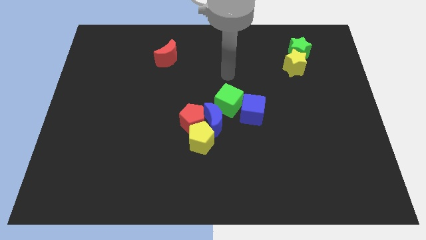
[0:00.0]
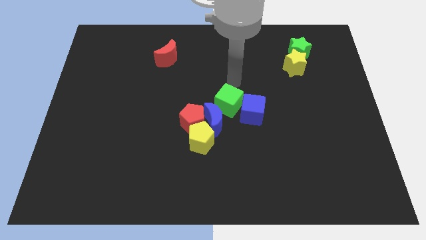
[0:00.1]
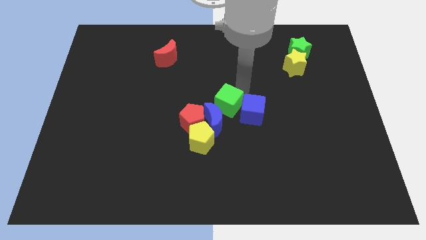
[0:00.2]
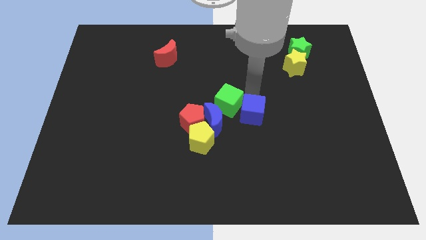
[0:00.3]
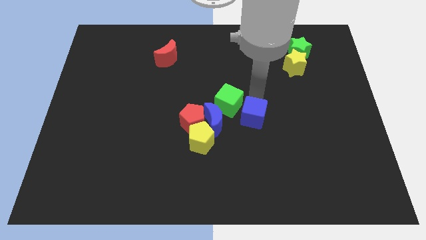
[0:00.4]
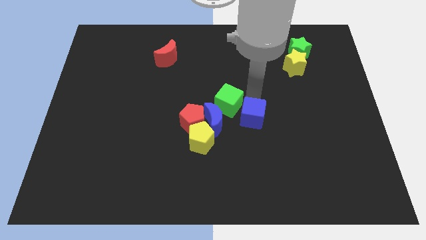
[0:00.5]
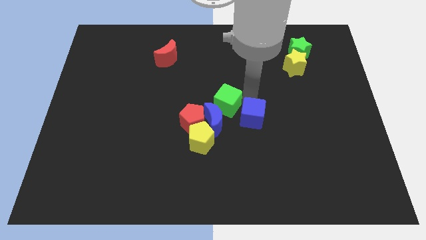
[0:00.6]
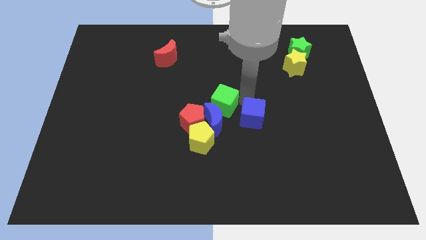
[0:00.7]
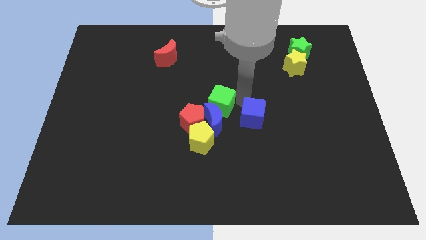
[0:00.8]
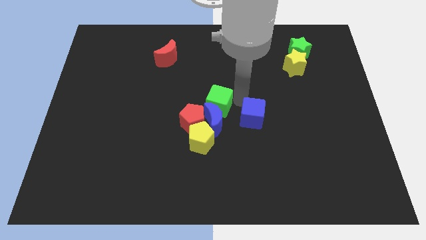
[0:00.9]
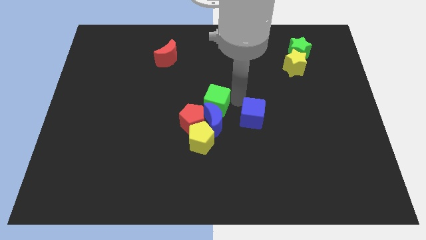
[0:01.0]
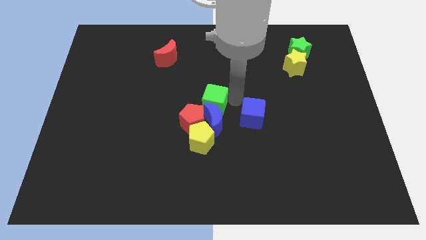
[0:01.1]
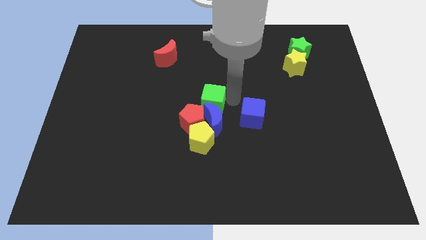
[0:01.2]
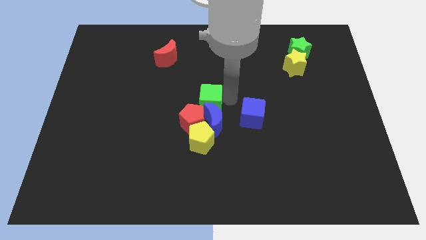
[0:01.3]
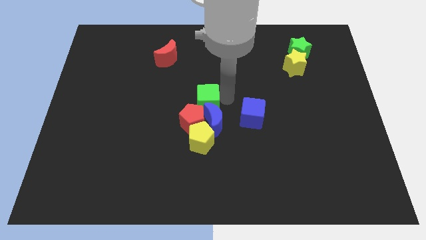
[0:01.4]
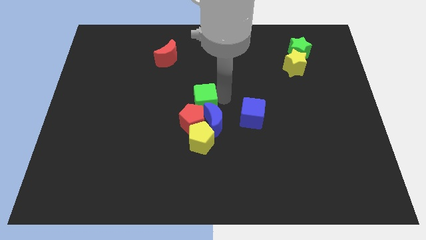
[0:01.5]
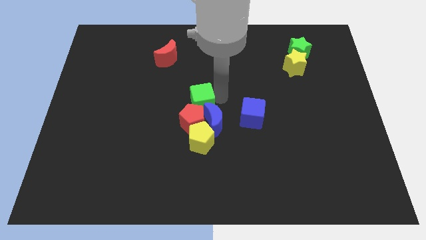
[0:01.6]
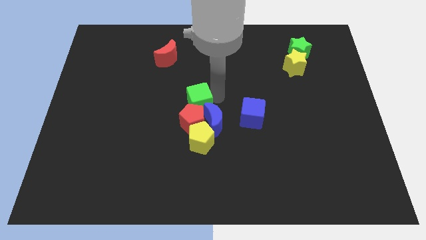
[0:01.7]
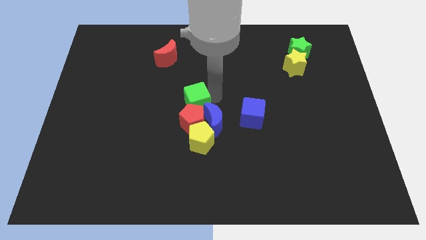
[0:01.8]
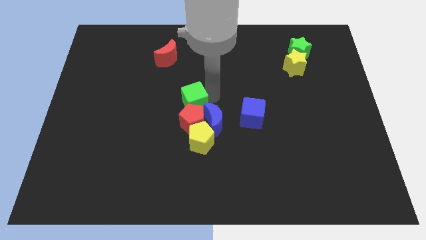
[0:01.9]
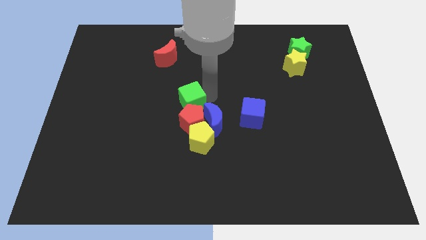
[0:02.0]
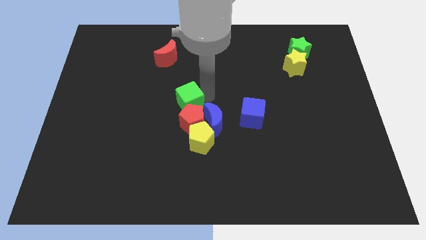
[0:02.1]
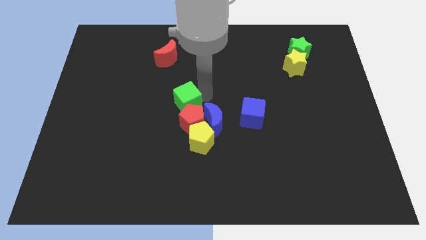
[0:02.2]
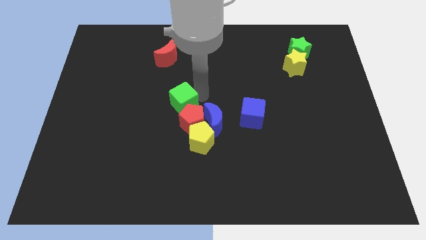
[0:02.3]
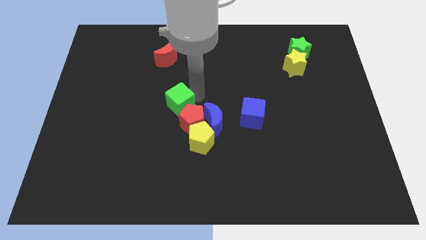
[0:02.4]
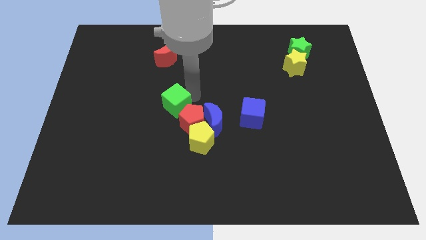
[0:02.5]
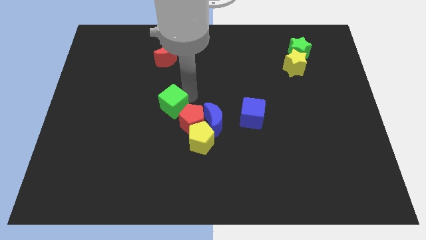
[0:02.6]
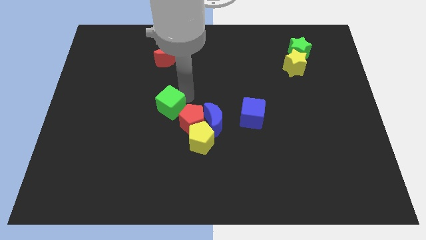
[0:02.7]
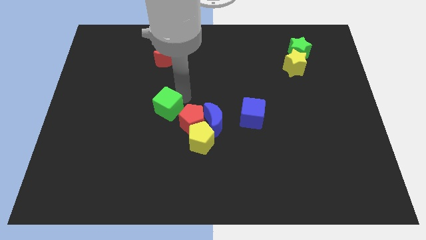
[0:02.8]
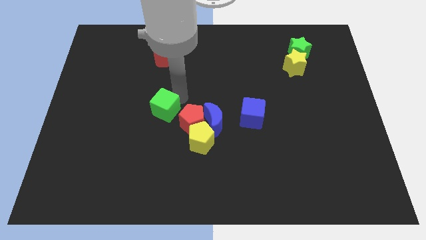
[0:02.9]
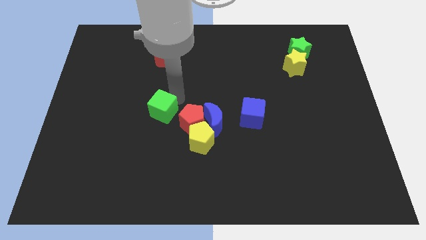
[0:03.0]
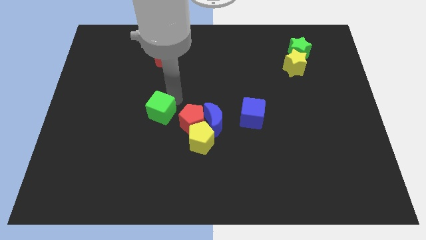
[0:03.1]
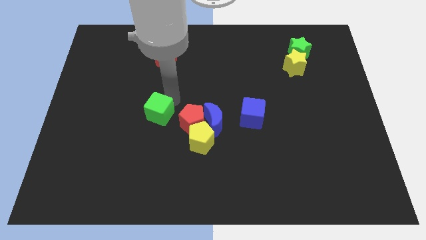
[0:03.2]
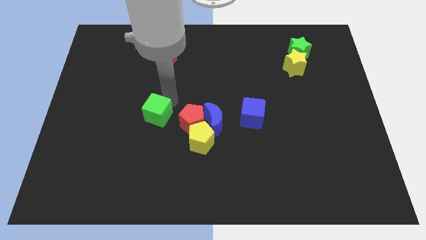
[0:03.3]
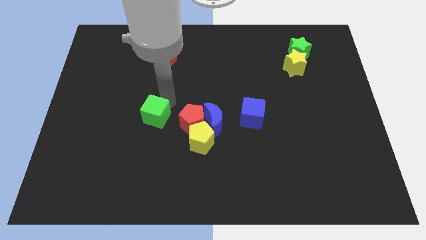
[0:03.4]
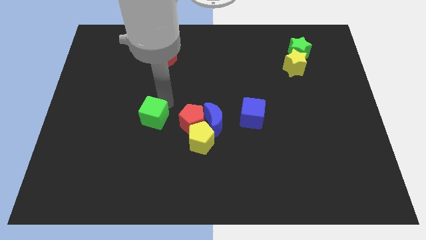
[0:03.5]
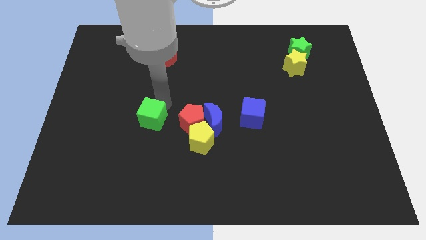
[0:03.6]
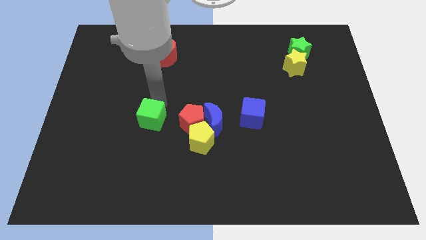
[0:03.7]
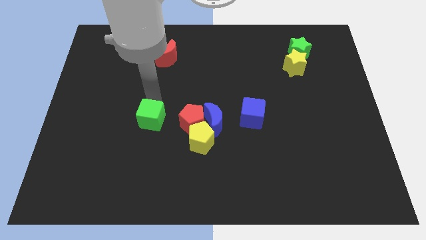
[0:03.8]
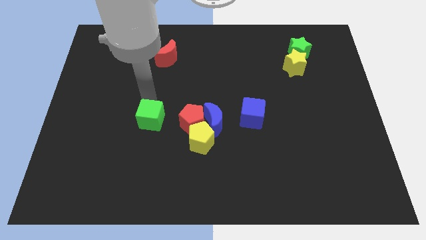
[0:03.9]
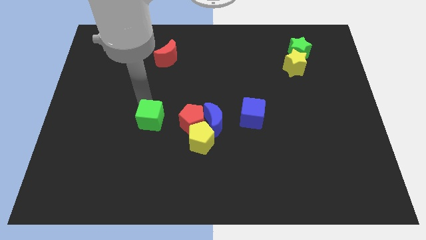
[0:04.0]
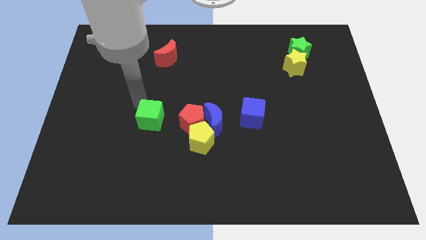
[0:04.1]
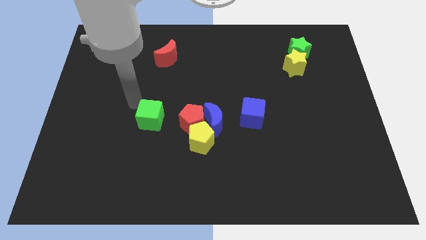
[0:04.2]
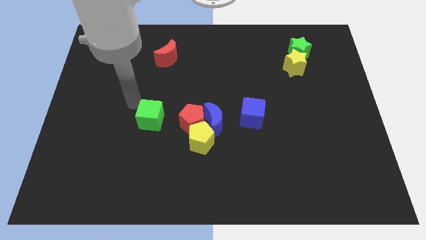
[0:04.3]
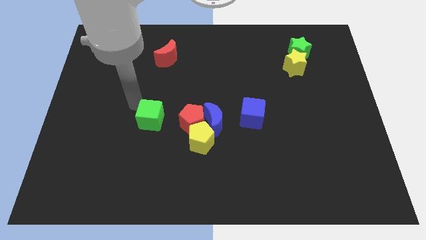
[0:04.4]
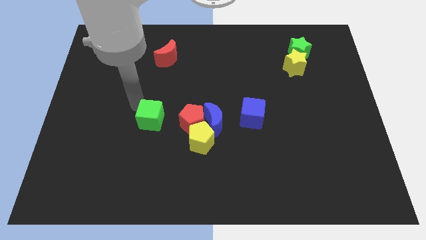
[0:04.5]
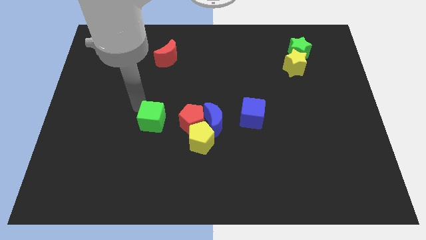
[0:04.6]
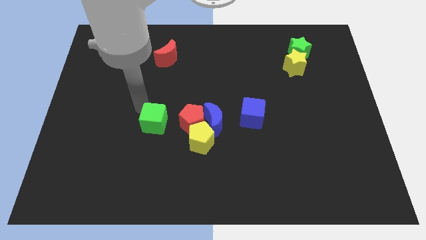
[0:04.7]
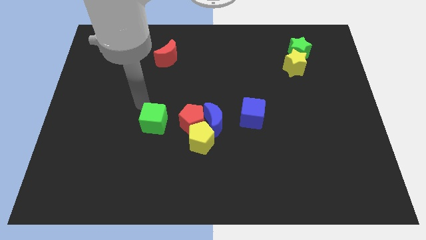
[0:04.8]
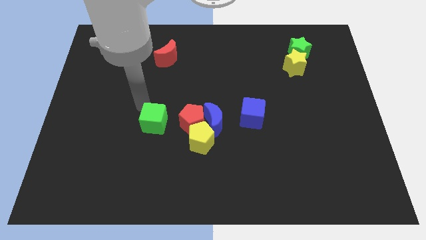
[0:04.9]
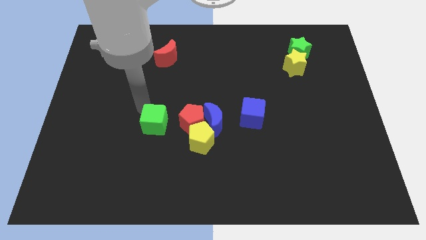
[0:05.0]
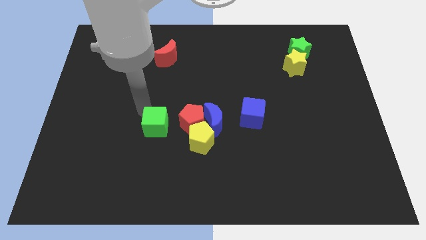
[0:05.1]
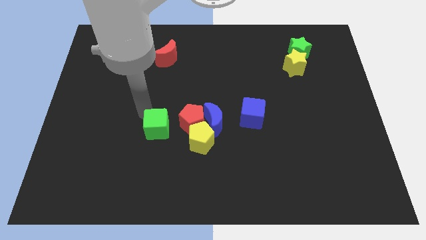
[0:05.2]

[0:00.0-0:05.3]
push the green cube diagonally down and to the left of the red pentagon

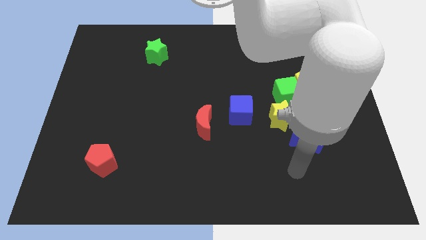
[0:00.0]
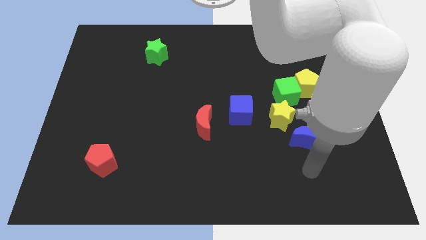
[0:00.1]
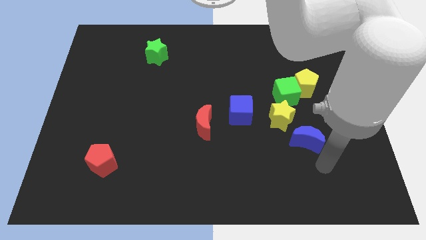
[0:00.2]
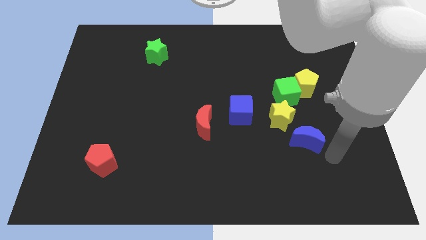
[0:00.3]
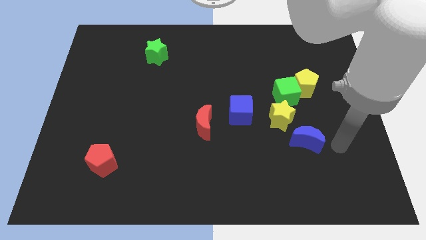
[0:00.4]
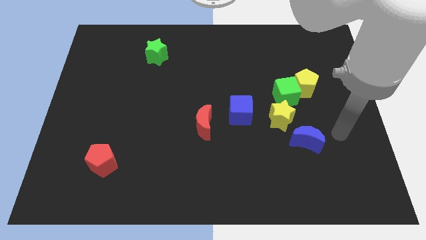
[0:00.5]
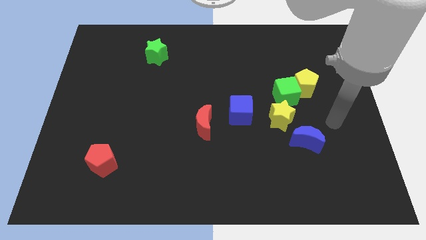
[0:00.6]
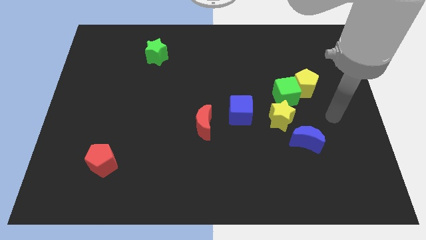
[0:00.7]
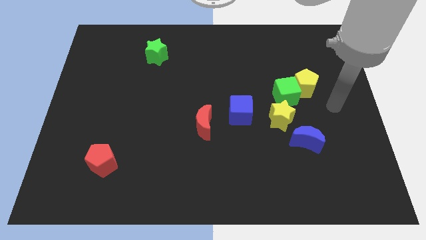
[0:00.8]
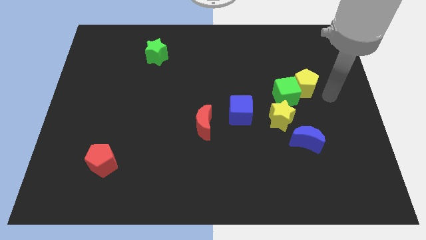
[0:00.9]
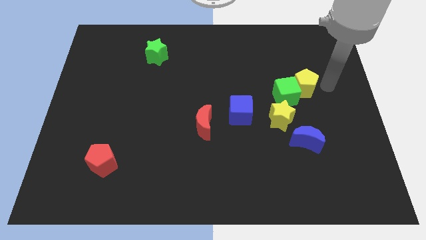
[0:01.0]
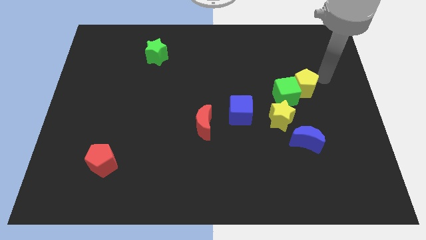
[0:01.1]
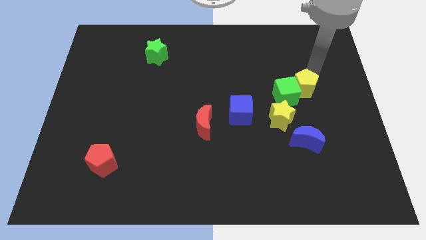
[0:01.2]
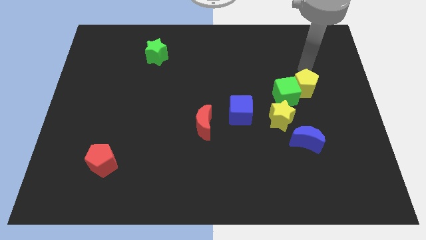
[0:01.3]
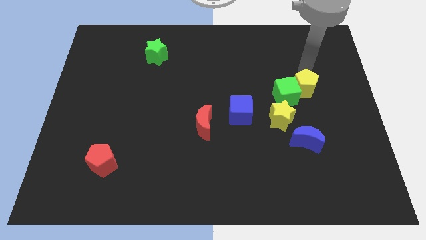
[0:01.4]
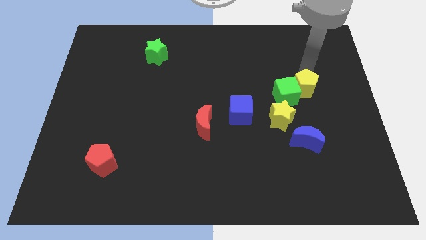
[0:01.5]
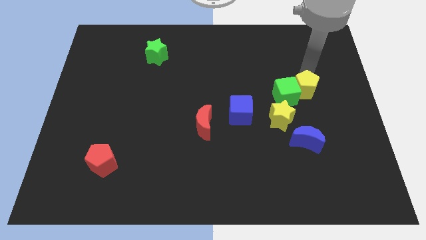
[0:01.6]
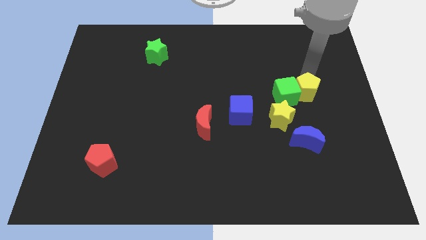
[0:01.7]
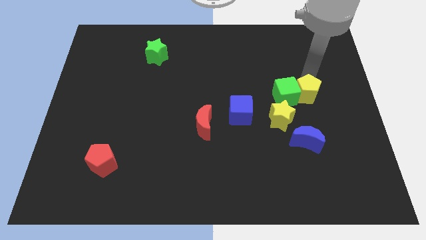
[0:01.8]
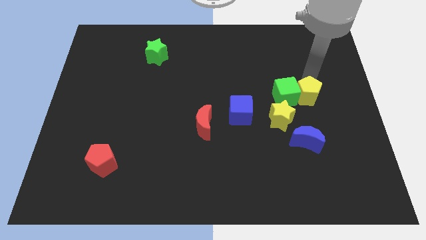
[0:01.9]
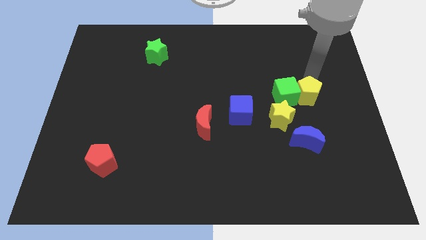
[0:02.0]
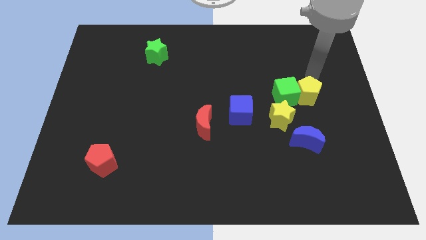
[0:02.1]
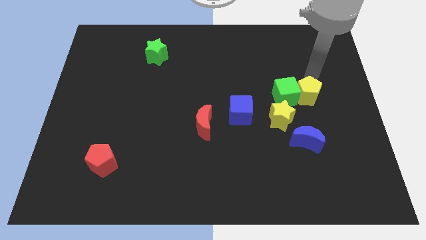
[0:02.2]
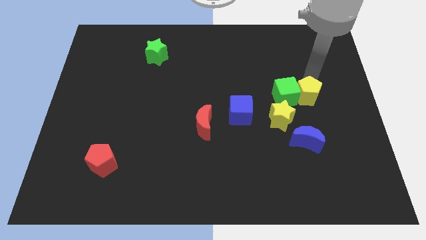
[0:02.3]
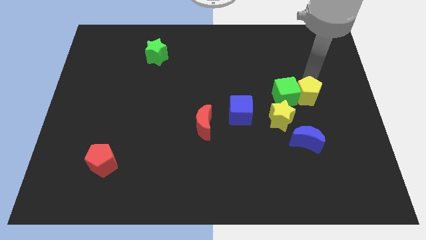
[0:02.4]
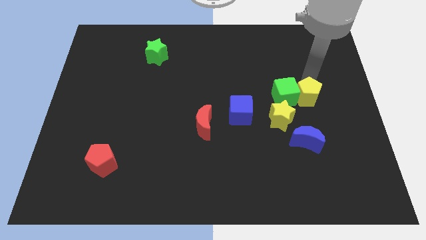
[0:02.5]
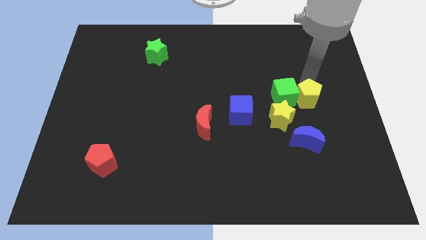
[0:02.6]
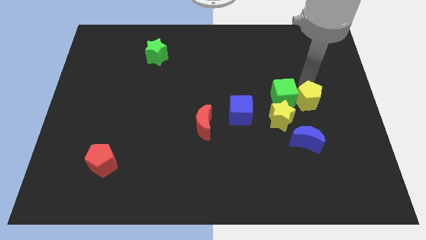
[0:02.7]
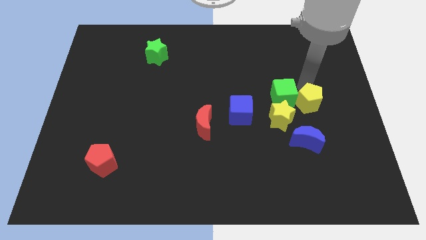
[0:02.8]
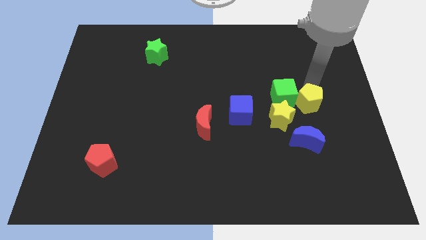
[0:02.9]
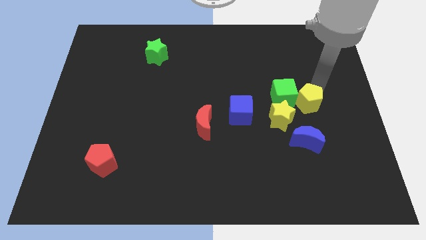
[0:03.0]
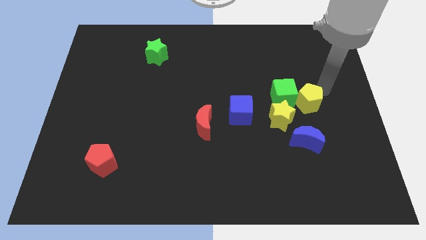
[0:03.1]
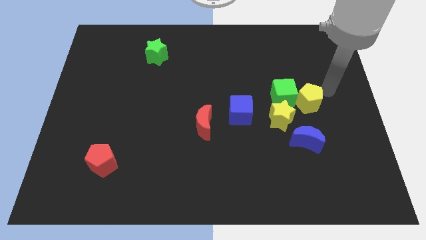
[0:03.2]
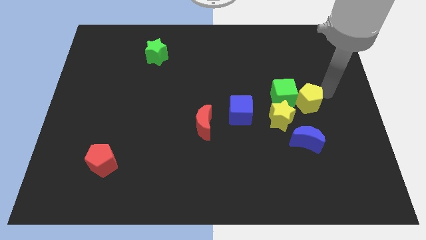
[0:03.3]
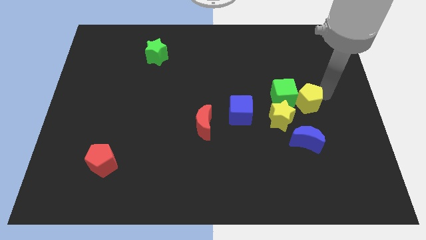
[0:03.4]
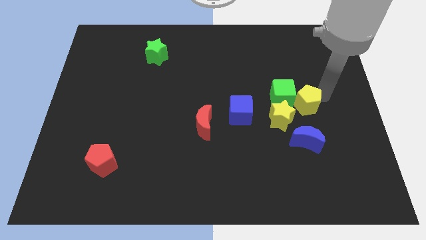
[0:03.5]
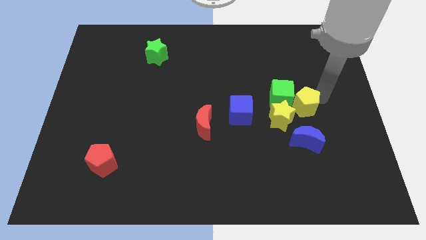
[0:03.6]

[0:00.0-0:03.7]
put the yellow pentagon right of the blue cube
